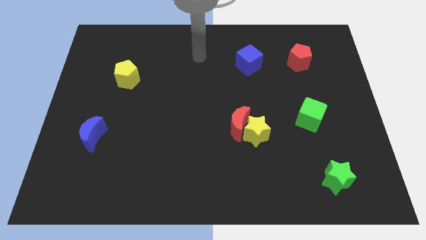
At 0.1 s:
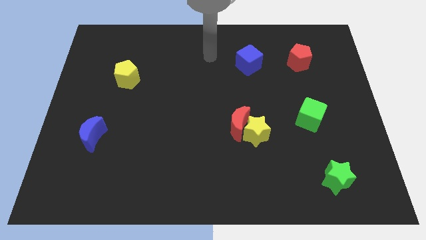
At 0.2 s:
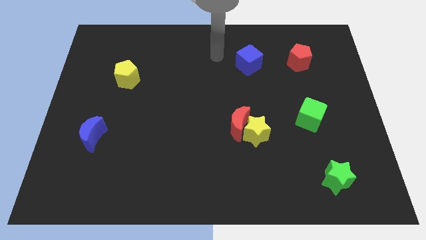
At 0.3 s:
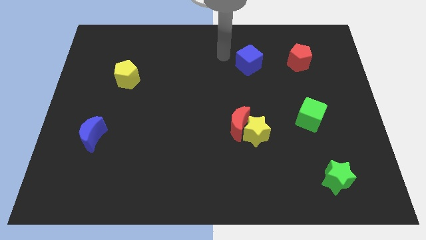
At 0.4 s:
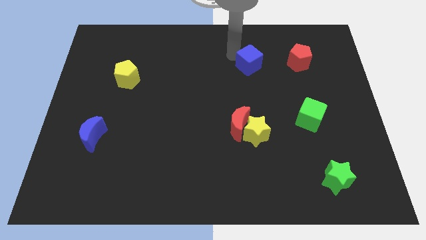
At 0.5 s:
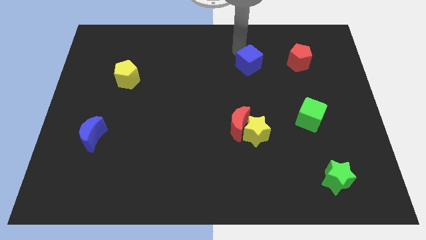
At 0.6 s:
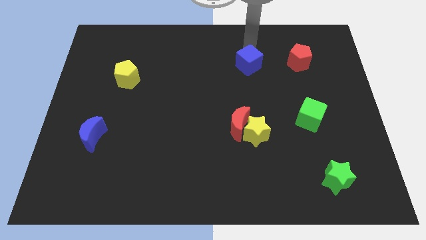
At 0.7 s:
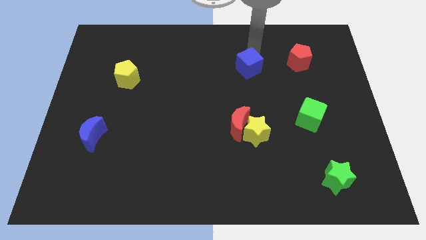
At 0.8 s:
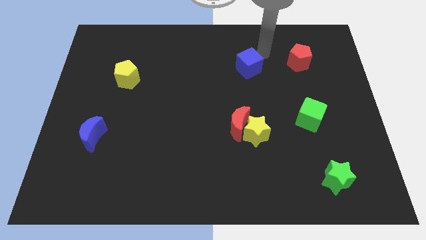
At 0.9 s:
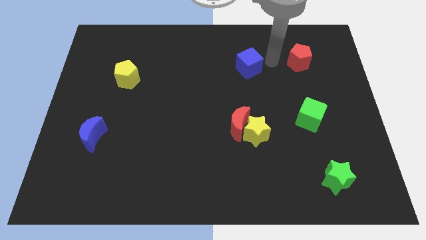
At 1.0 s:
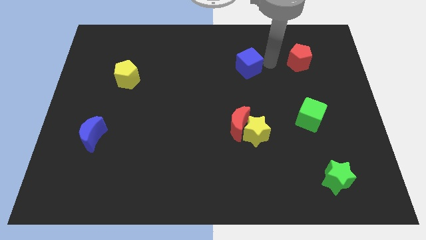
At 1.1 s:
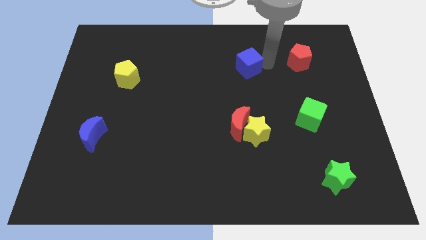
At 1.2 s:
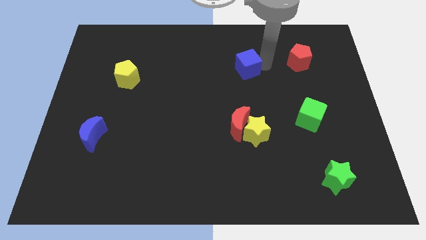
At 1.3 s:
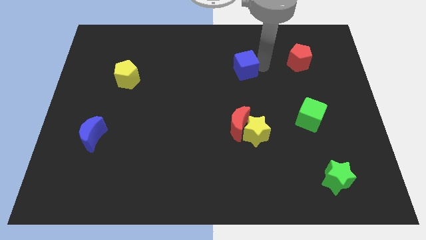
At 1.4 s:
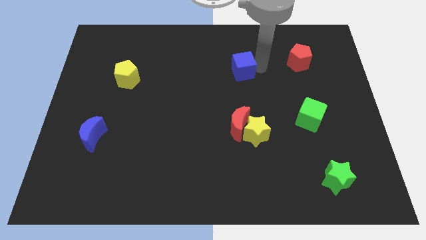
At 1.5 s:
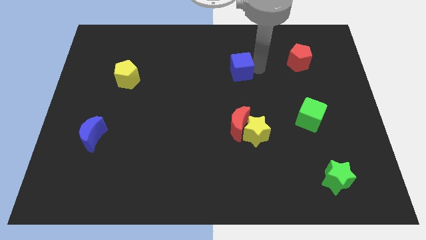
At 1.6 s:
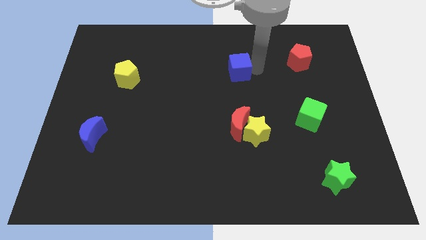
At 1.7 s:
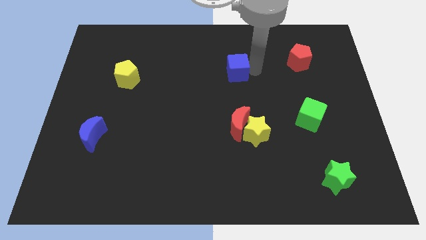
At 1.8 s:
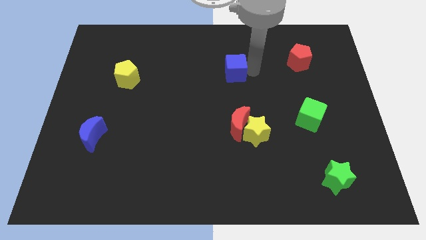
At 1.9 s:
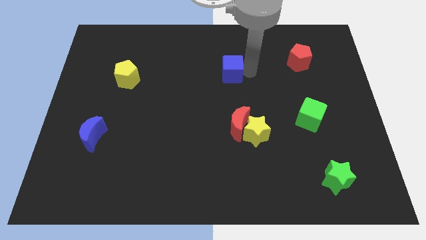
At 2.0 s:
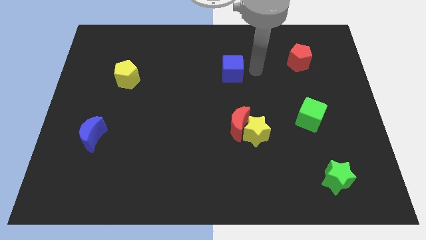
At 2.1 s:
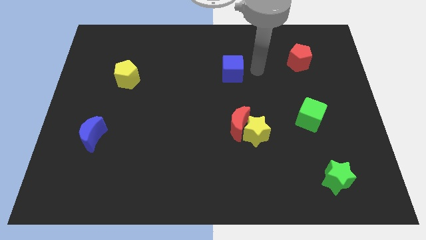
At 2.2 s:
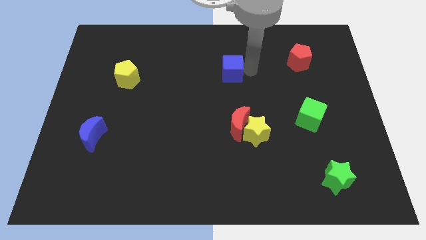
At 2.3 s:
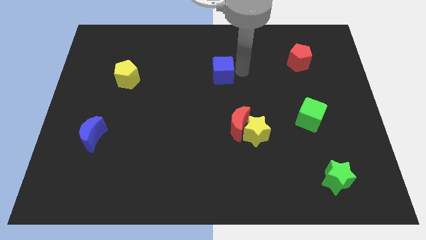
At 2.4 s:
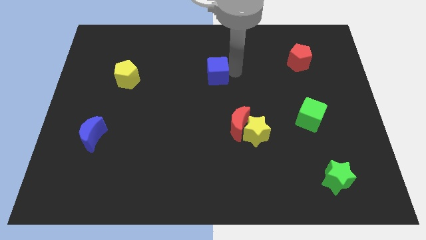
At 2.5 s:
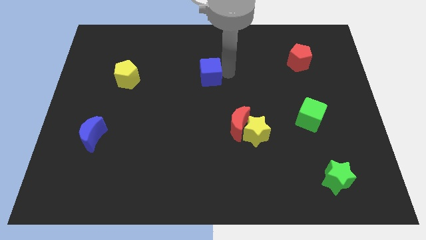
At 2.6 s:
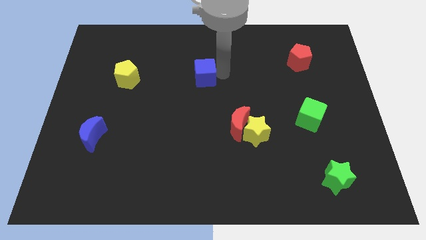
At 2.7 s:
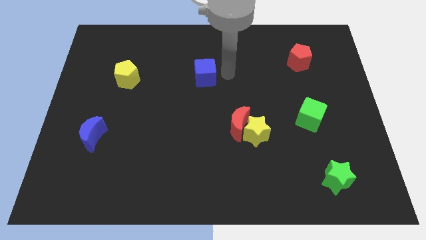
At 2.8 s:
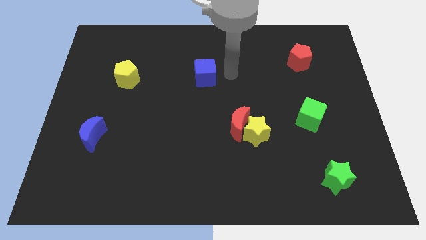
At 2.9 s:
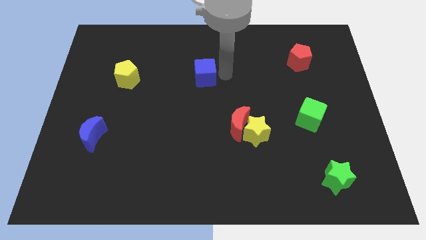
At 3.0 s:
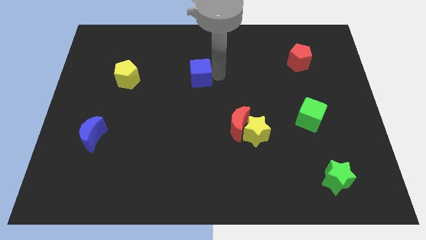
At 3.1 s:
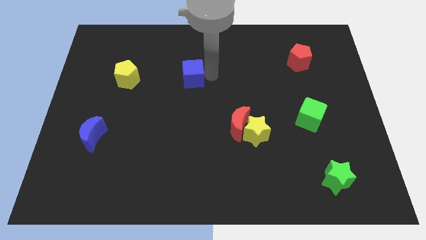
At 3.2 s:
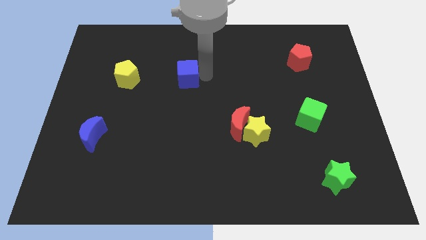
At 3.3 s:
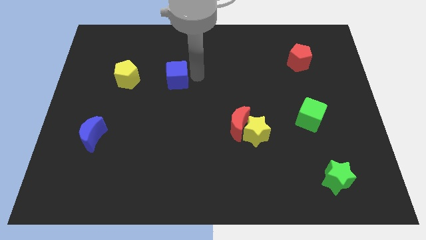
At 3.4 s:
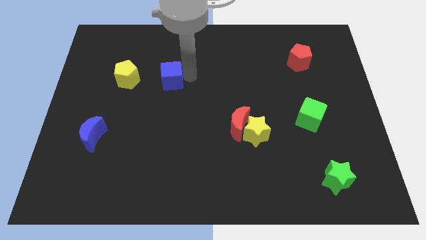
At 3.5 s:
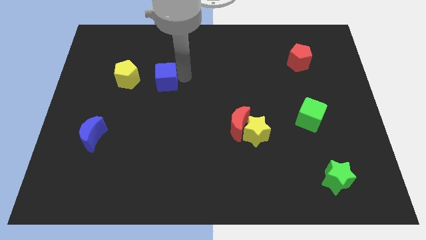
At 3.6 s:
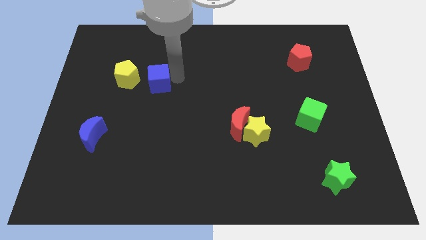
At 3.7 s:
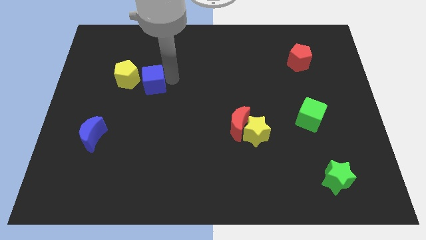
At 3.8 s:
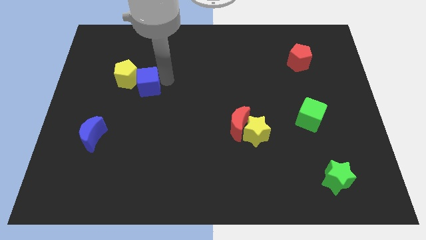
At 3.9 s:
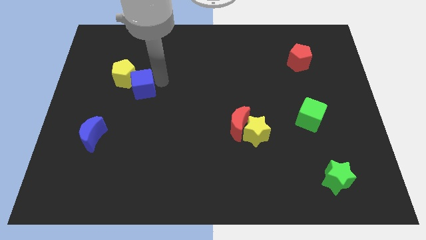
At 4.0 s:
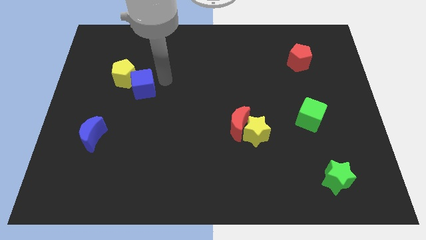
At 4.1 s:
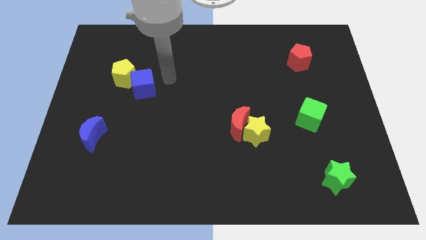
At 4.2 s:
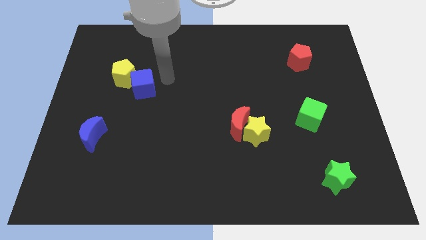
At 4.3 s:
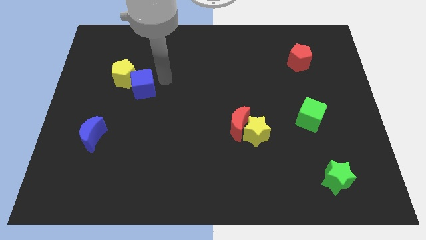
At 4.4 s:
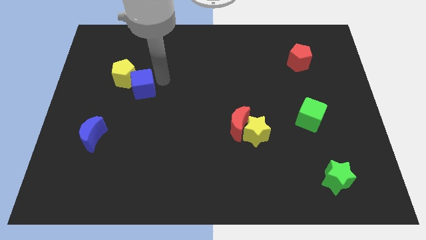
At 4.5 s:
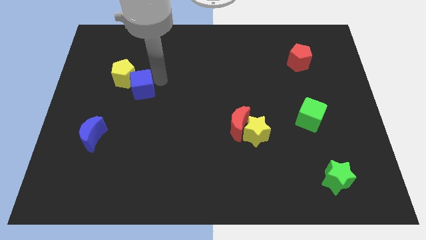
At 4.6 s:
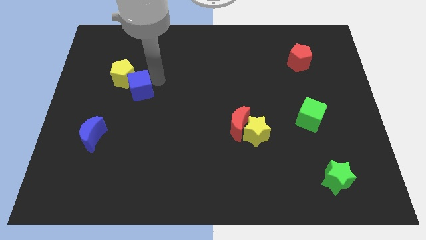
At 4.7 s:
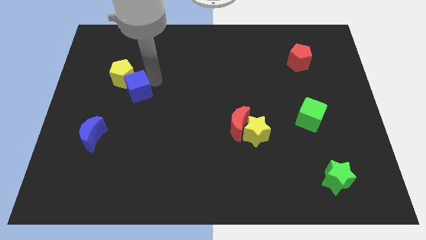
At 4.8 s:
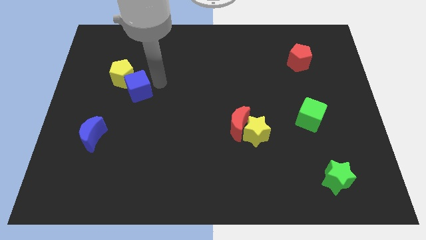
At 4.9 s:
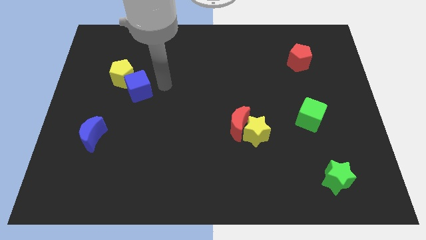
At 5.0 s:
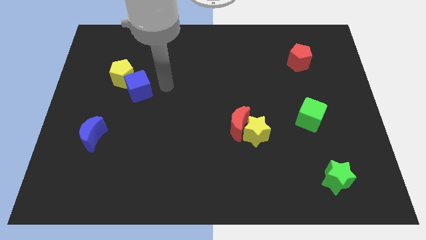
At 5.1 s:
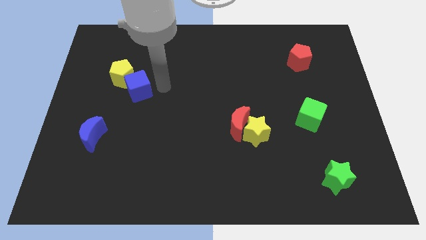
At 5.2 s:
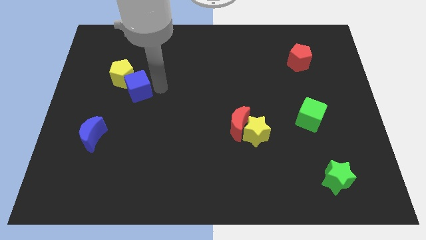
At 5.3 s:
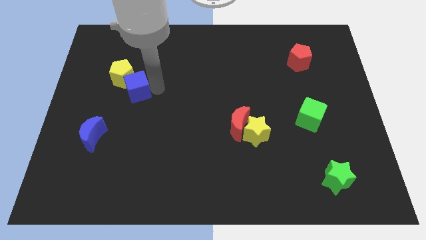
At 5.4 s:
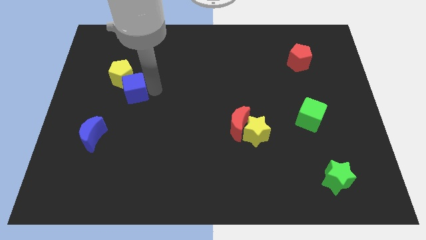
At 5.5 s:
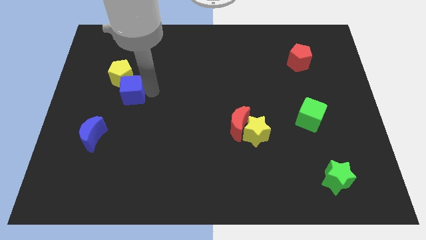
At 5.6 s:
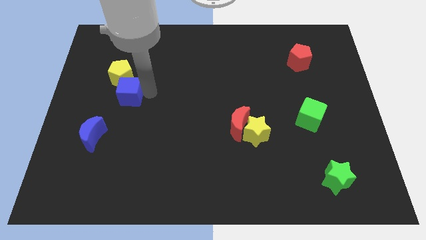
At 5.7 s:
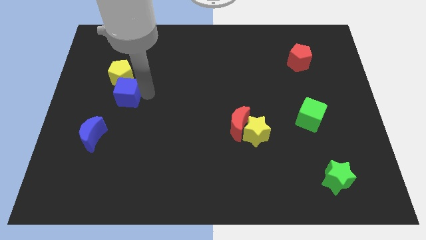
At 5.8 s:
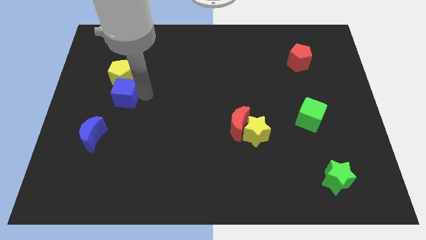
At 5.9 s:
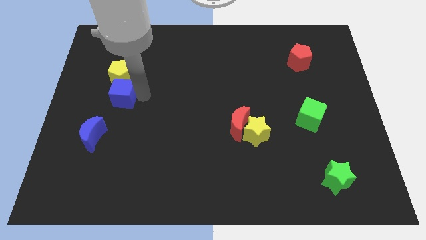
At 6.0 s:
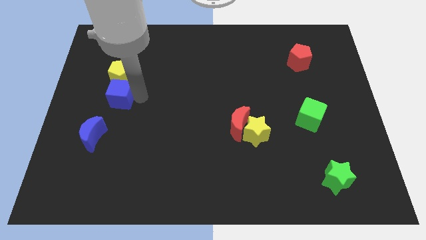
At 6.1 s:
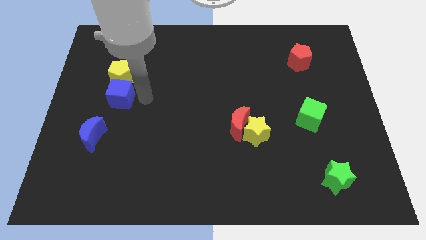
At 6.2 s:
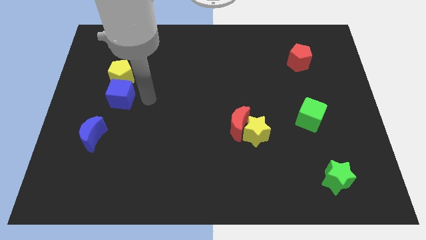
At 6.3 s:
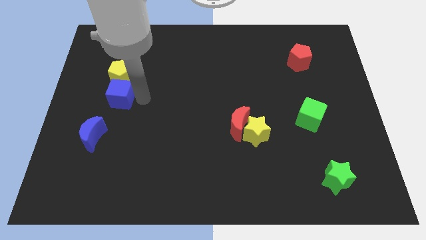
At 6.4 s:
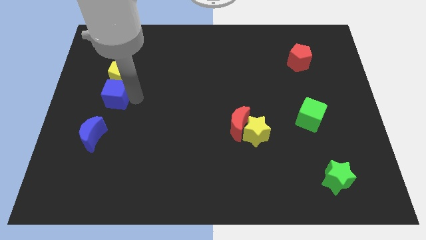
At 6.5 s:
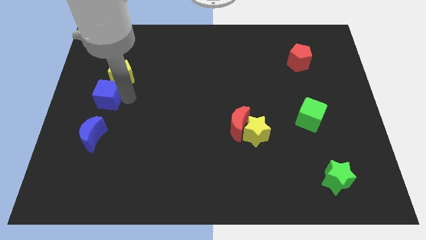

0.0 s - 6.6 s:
put the blue cube to the center left
